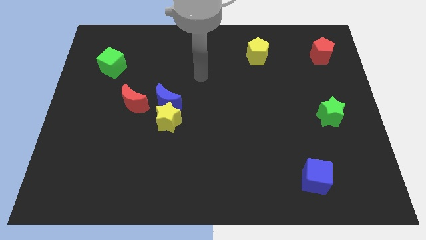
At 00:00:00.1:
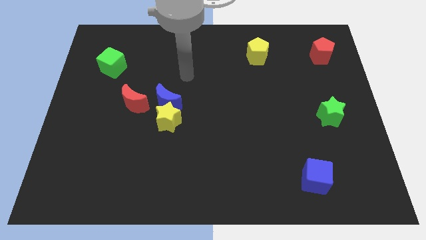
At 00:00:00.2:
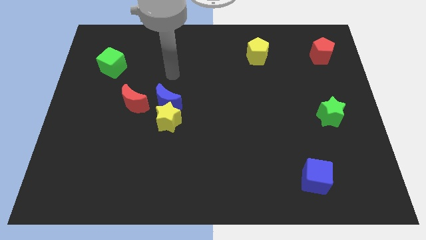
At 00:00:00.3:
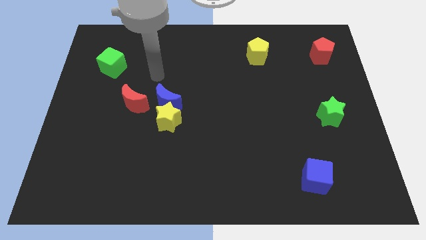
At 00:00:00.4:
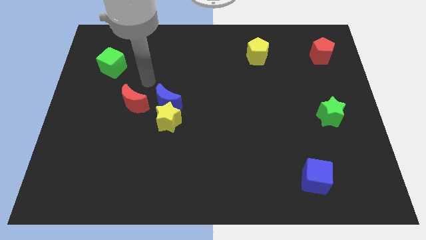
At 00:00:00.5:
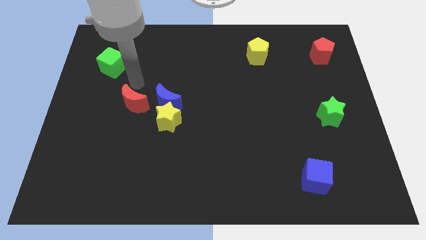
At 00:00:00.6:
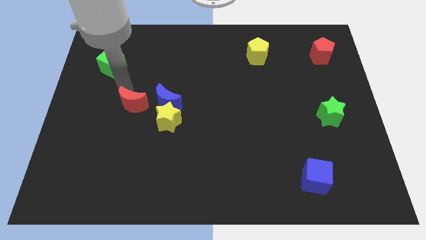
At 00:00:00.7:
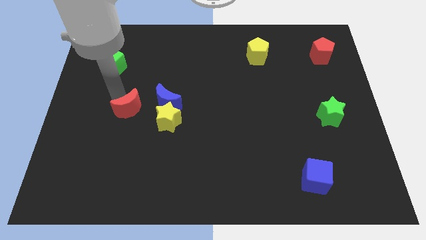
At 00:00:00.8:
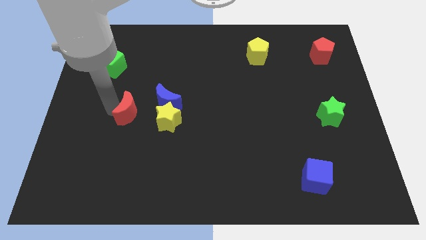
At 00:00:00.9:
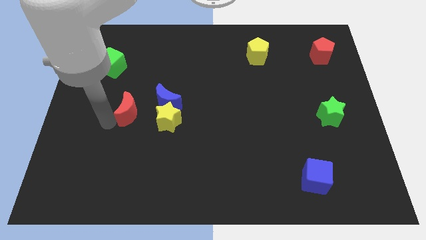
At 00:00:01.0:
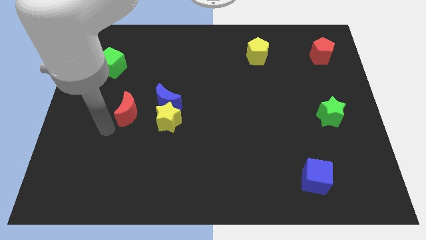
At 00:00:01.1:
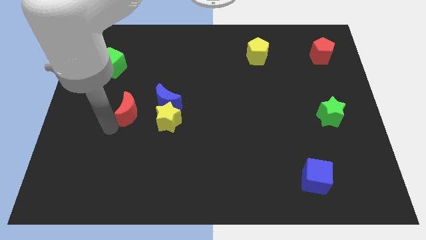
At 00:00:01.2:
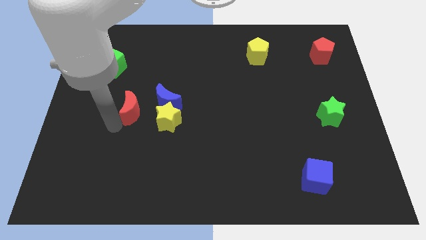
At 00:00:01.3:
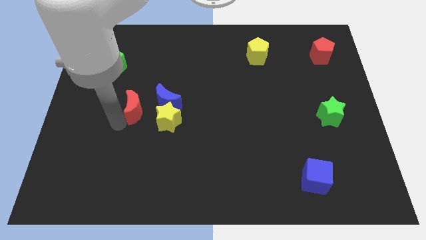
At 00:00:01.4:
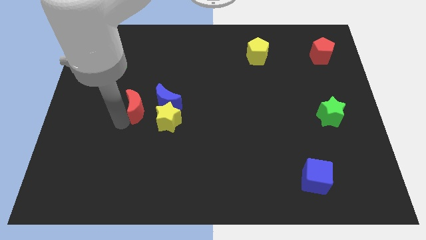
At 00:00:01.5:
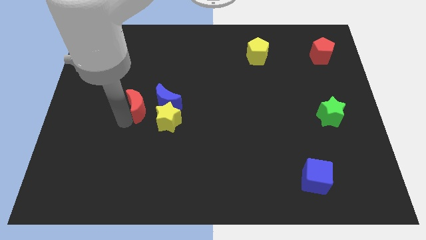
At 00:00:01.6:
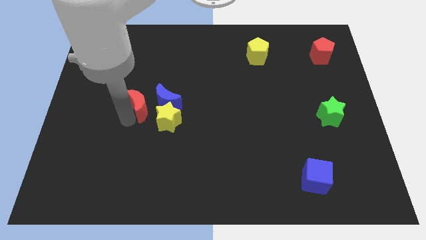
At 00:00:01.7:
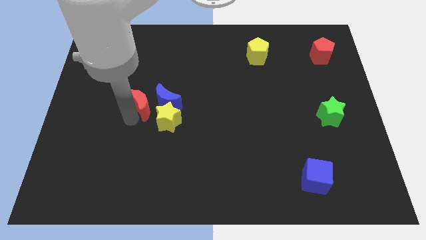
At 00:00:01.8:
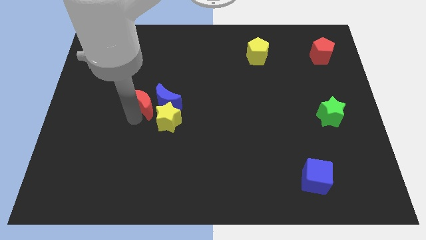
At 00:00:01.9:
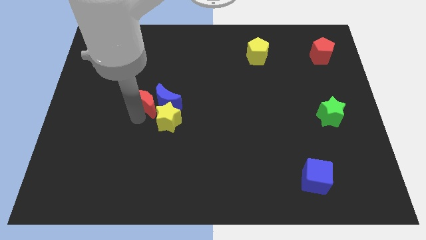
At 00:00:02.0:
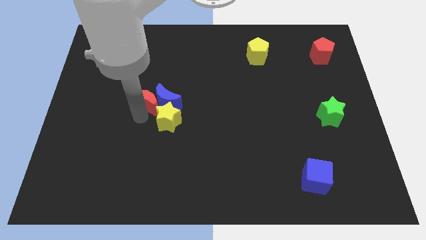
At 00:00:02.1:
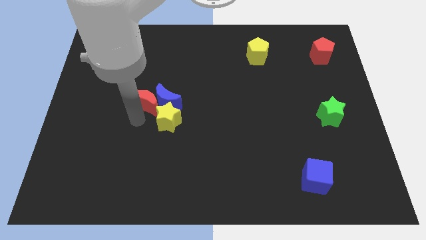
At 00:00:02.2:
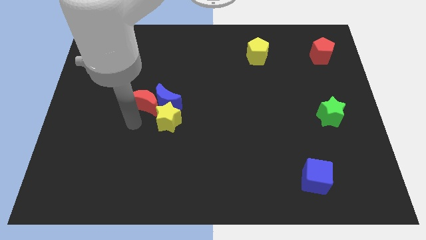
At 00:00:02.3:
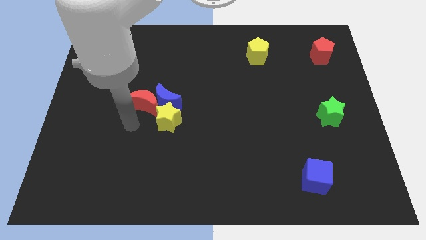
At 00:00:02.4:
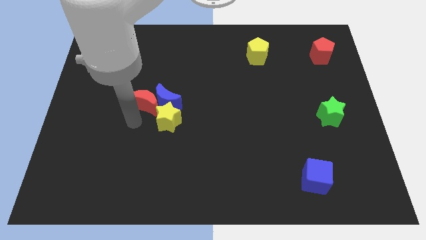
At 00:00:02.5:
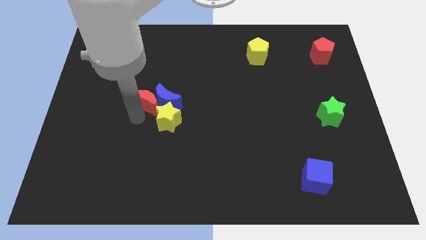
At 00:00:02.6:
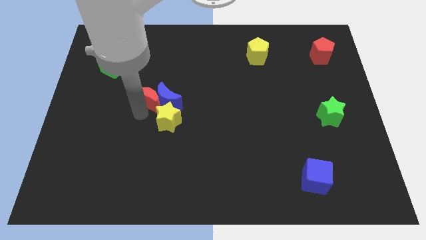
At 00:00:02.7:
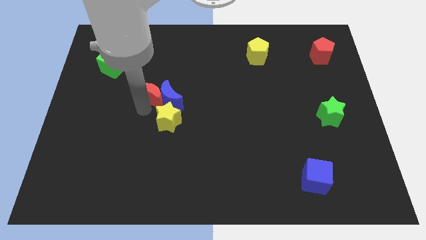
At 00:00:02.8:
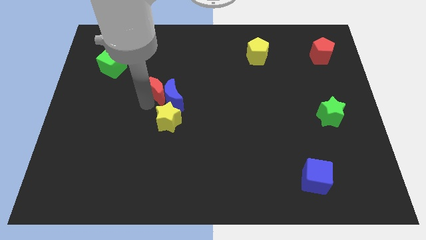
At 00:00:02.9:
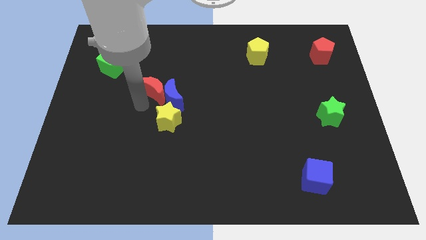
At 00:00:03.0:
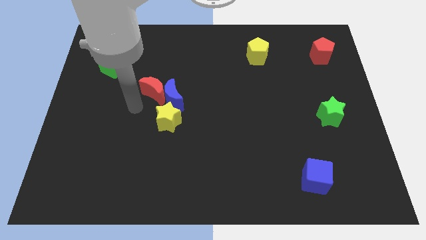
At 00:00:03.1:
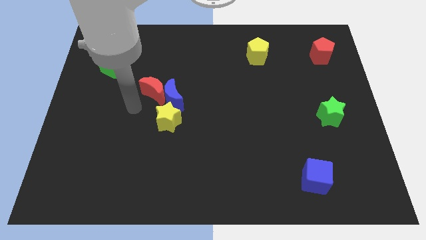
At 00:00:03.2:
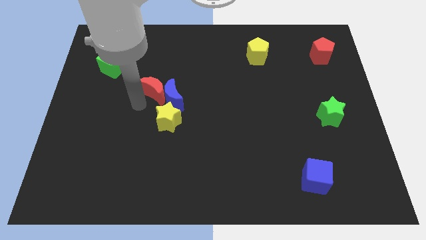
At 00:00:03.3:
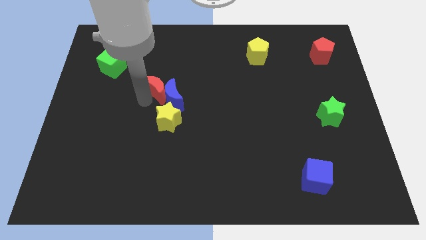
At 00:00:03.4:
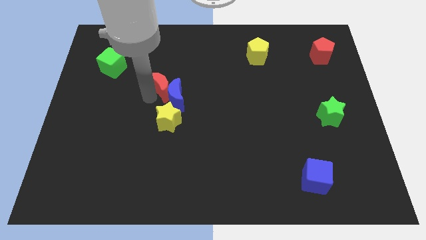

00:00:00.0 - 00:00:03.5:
slide the red moon diagonally upwards and to the right a little

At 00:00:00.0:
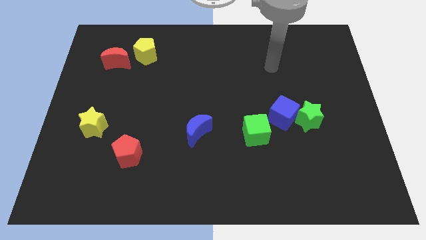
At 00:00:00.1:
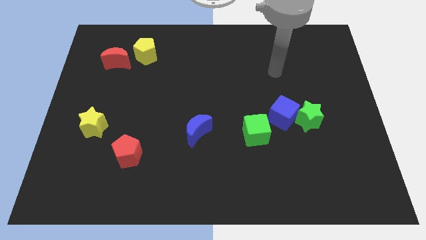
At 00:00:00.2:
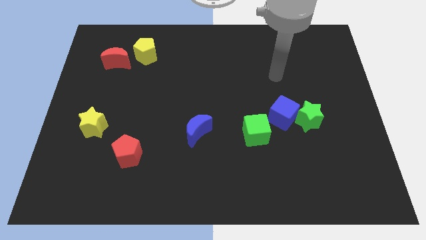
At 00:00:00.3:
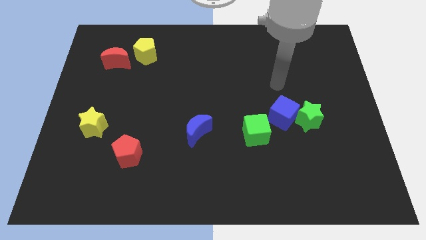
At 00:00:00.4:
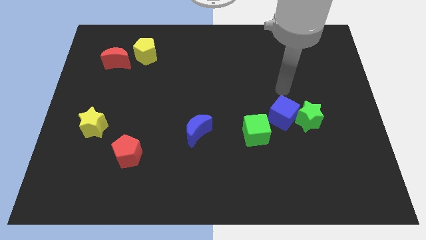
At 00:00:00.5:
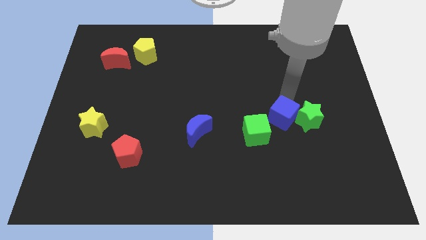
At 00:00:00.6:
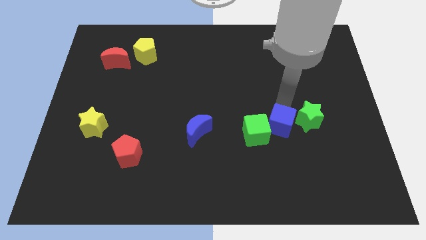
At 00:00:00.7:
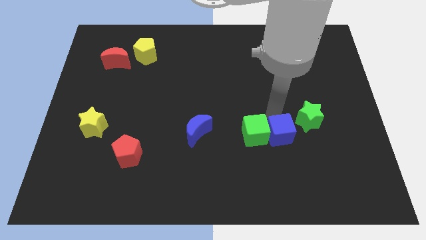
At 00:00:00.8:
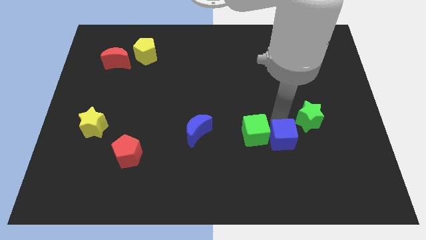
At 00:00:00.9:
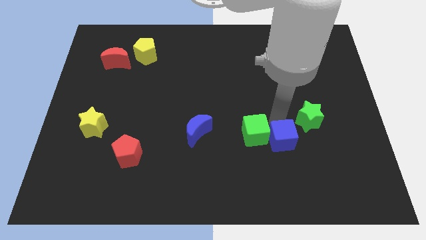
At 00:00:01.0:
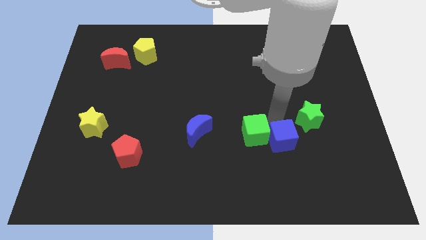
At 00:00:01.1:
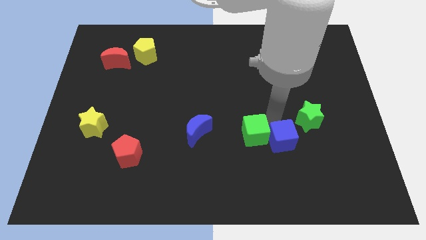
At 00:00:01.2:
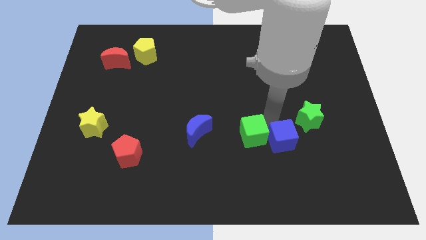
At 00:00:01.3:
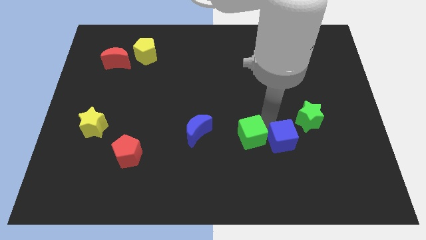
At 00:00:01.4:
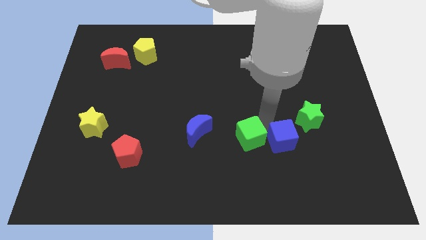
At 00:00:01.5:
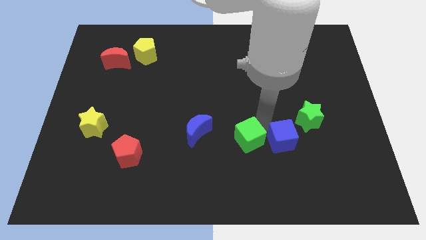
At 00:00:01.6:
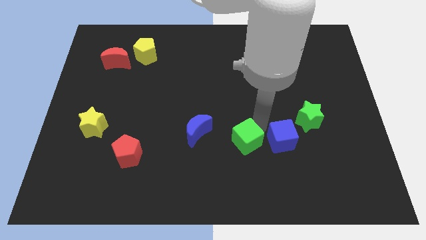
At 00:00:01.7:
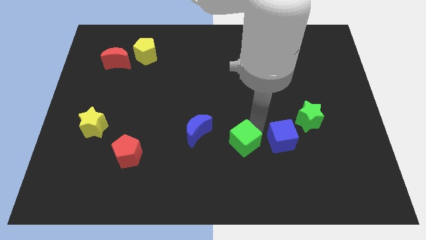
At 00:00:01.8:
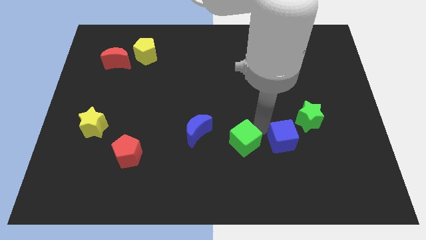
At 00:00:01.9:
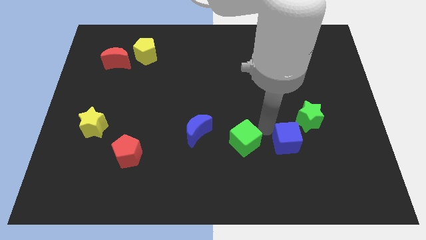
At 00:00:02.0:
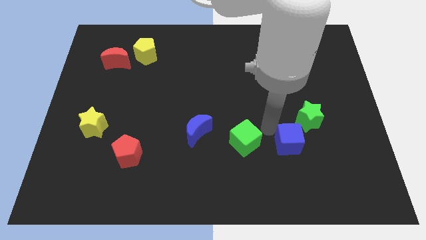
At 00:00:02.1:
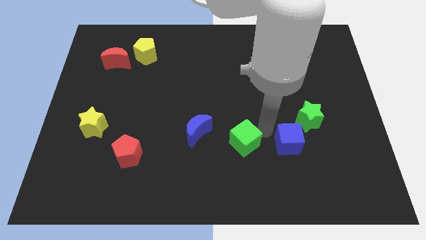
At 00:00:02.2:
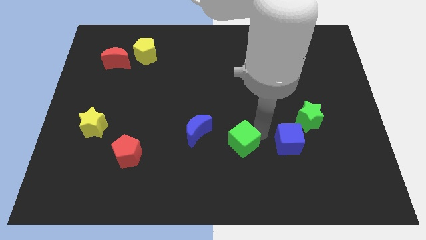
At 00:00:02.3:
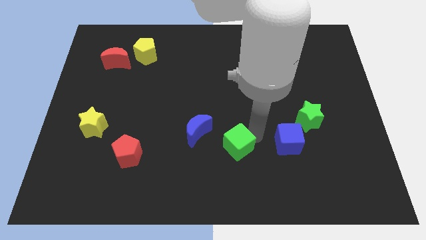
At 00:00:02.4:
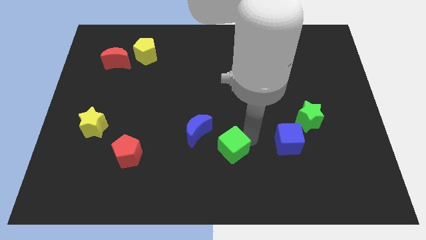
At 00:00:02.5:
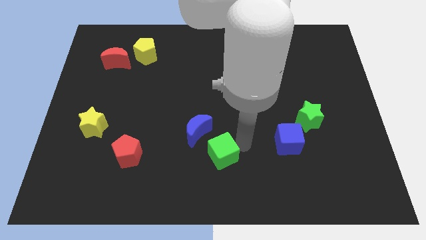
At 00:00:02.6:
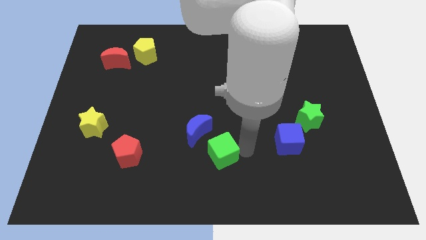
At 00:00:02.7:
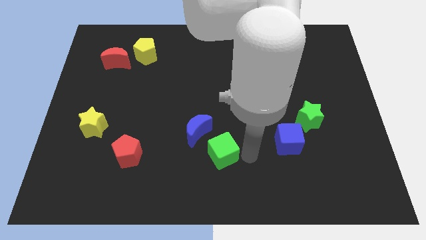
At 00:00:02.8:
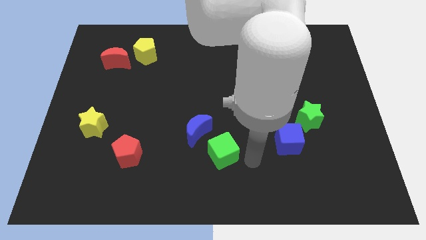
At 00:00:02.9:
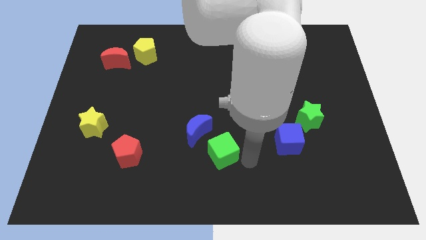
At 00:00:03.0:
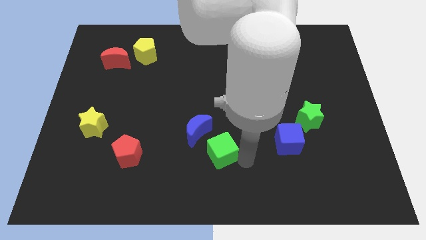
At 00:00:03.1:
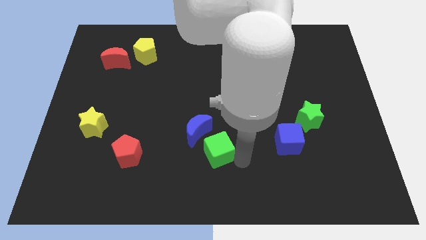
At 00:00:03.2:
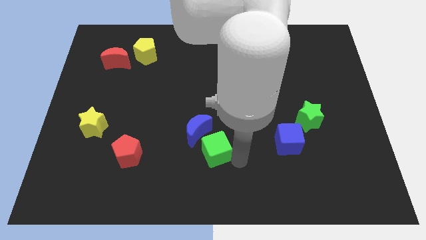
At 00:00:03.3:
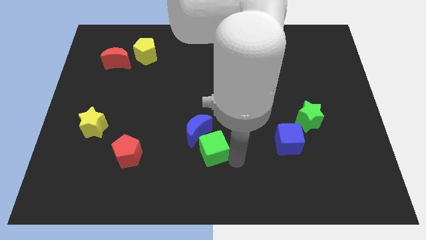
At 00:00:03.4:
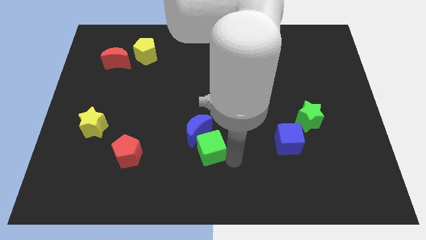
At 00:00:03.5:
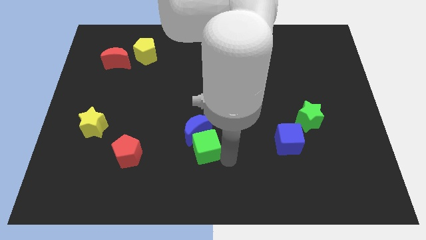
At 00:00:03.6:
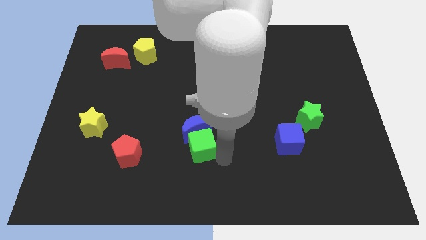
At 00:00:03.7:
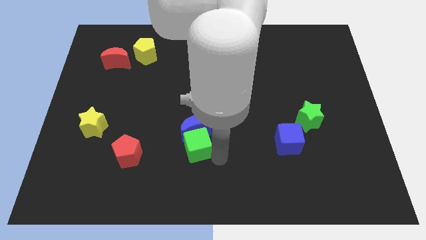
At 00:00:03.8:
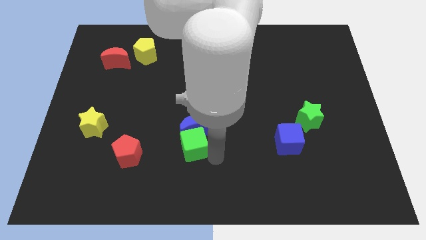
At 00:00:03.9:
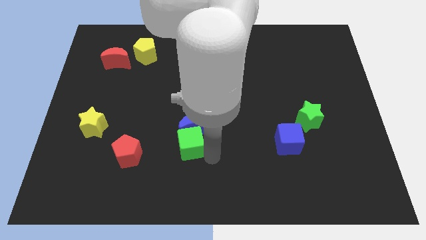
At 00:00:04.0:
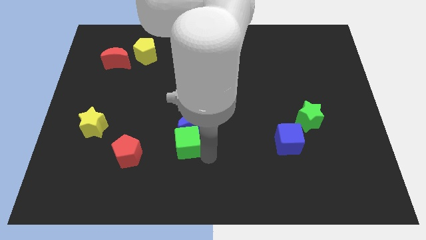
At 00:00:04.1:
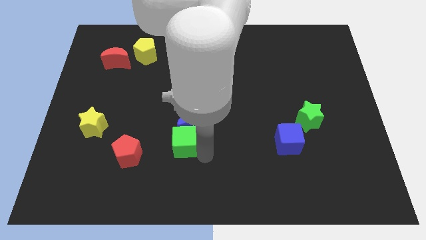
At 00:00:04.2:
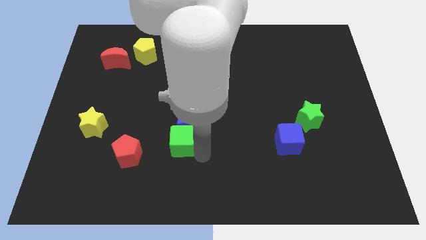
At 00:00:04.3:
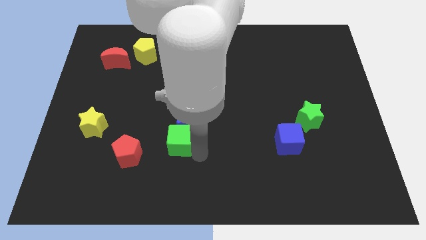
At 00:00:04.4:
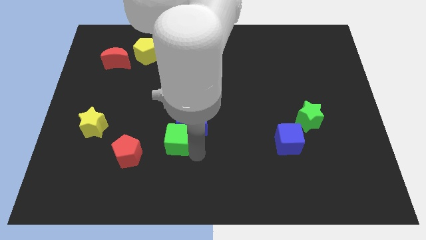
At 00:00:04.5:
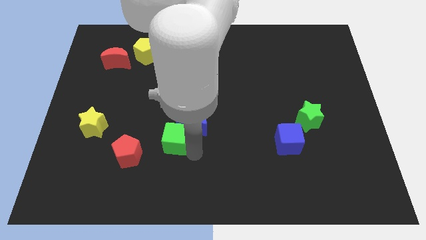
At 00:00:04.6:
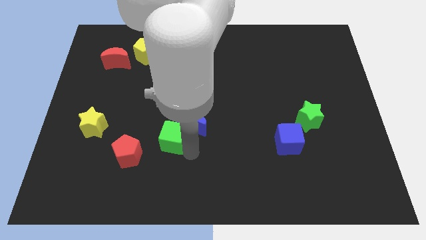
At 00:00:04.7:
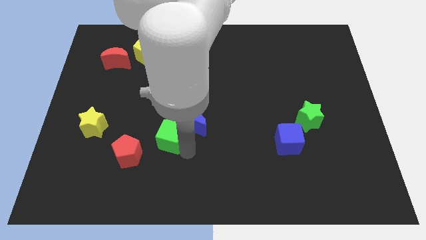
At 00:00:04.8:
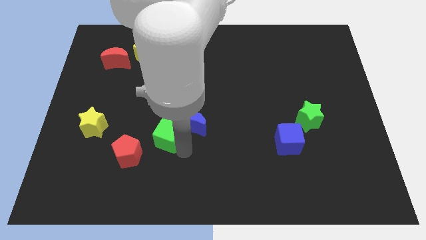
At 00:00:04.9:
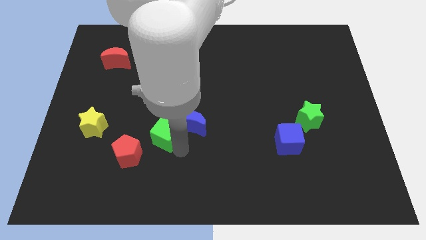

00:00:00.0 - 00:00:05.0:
push the green cube to the left
